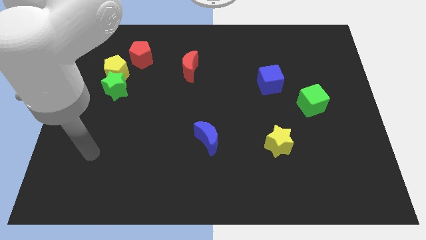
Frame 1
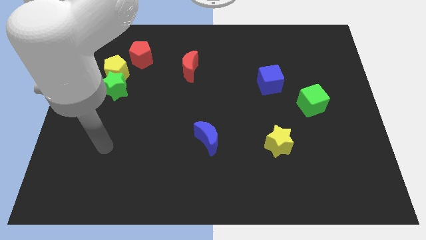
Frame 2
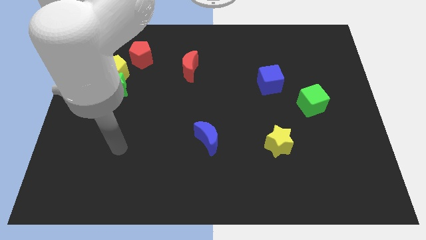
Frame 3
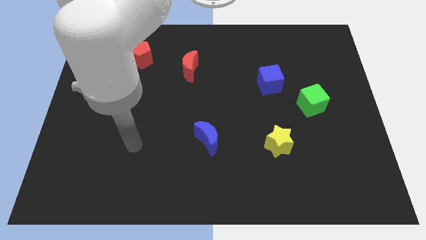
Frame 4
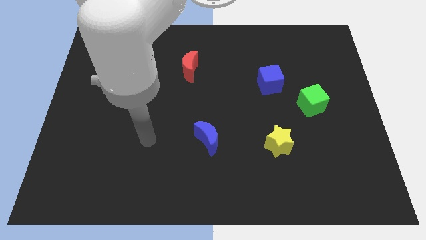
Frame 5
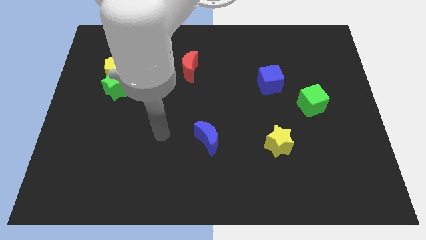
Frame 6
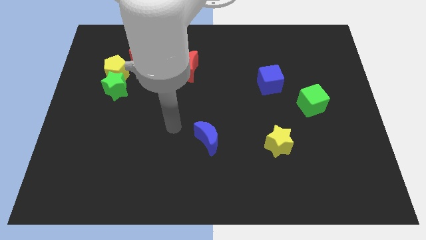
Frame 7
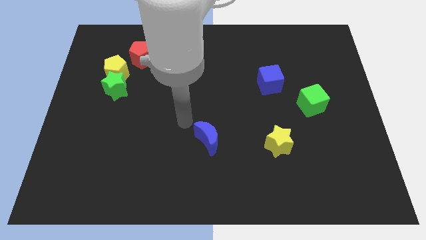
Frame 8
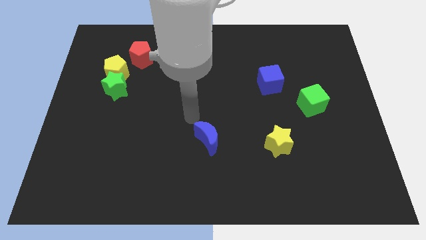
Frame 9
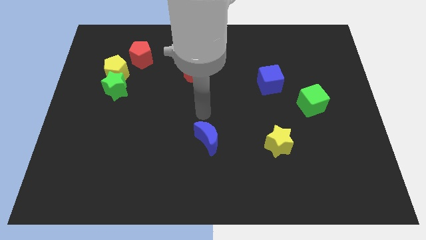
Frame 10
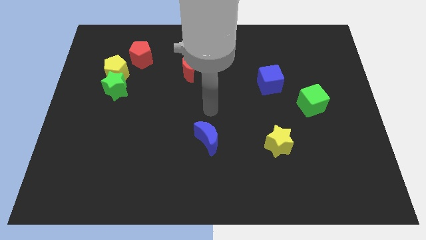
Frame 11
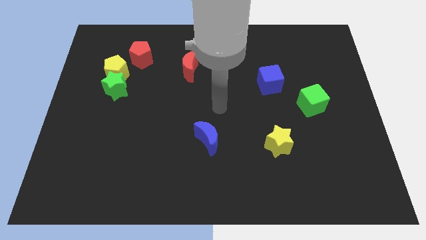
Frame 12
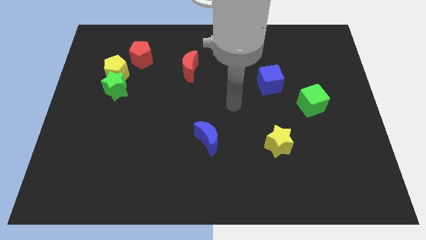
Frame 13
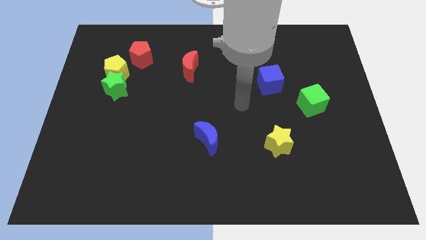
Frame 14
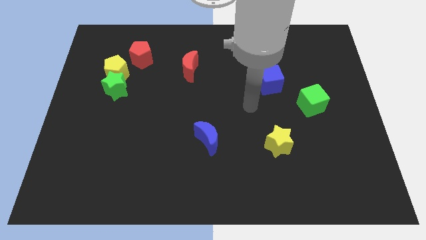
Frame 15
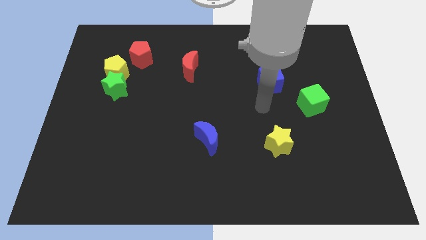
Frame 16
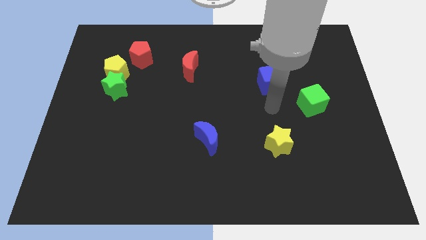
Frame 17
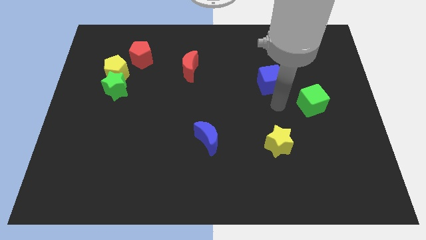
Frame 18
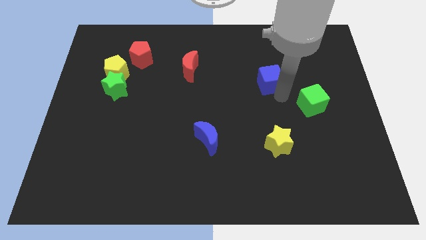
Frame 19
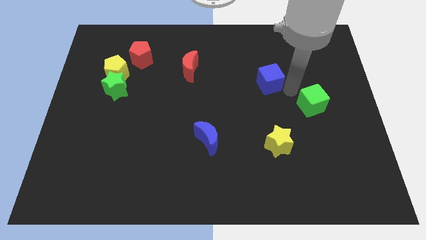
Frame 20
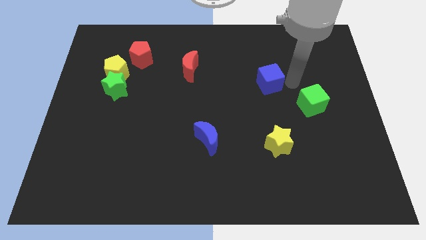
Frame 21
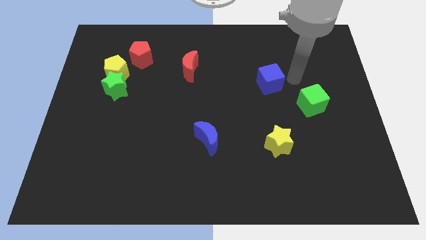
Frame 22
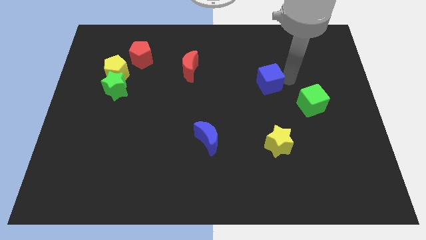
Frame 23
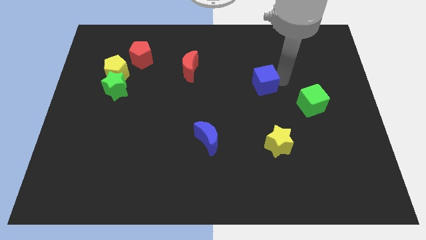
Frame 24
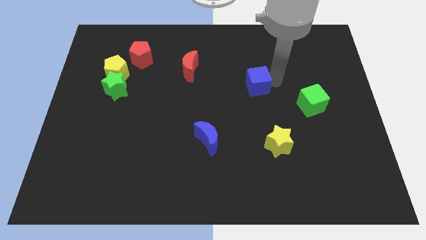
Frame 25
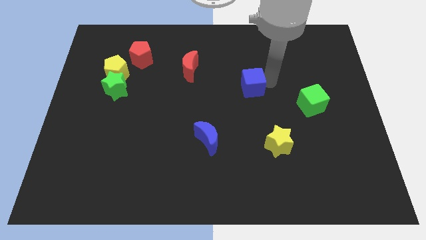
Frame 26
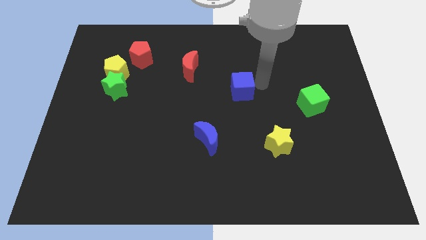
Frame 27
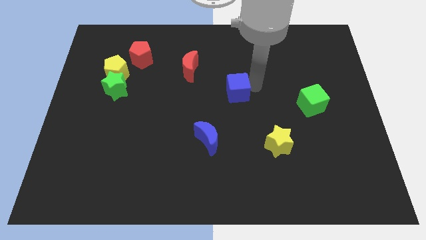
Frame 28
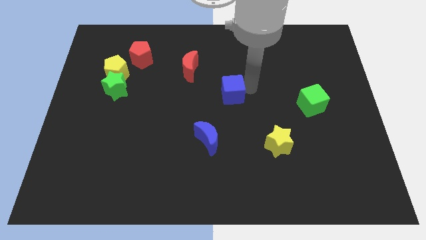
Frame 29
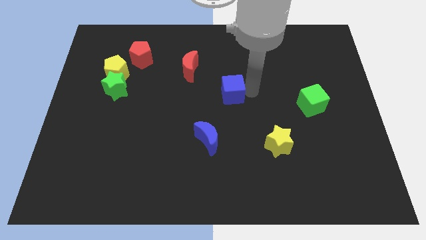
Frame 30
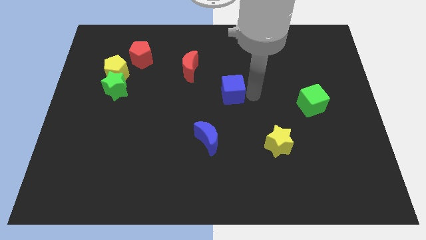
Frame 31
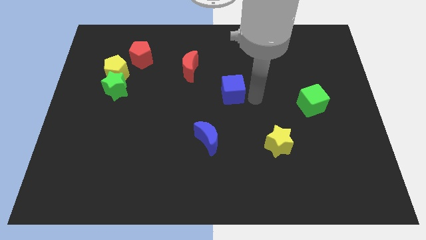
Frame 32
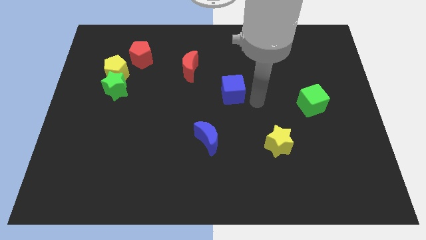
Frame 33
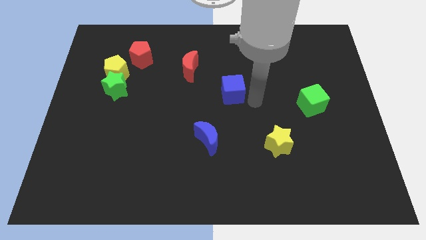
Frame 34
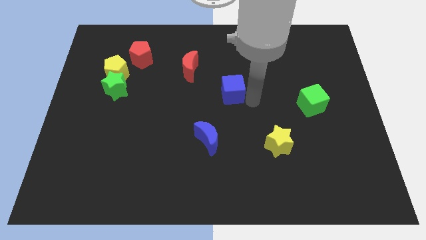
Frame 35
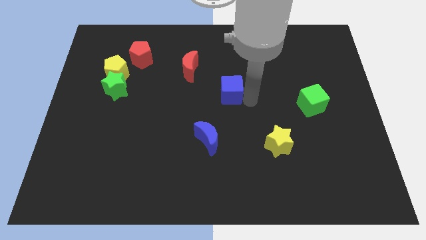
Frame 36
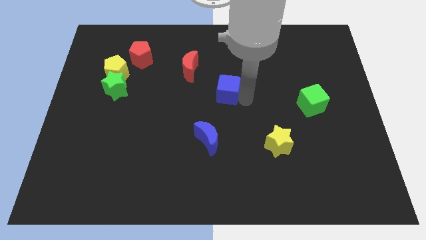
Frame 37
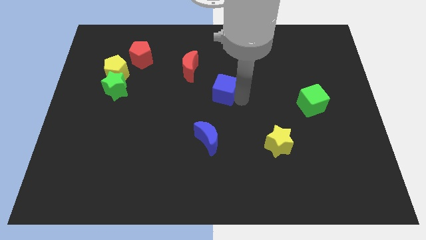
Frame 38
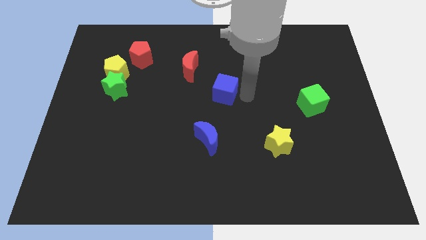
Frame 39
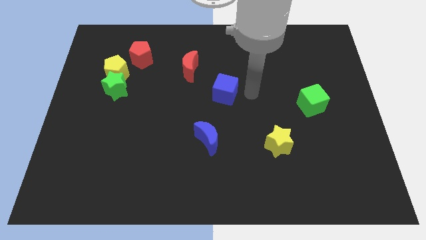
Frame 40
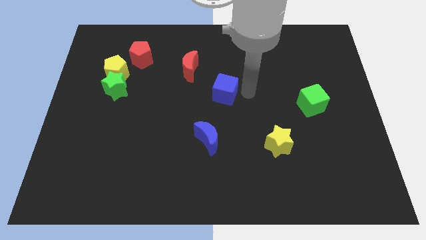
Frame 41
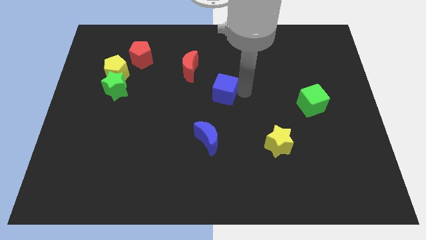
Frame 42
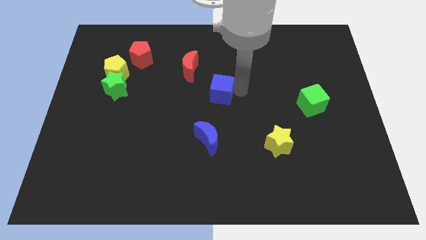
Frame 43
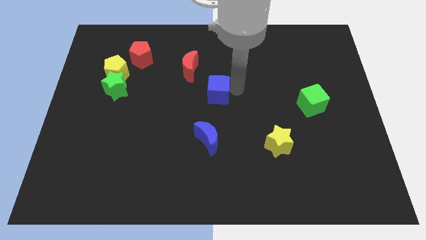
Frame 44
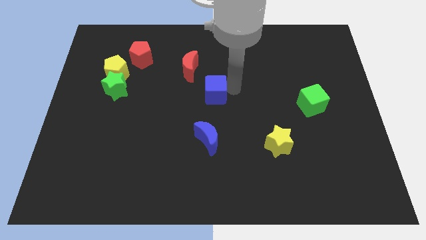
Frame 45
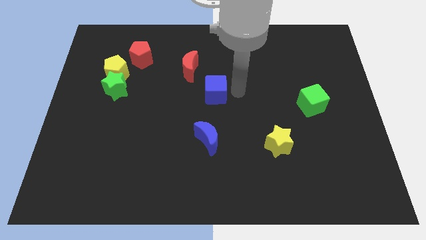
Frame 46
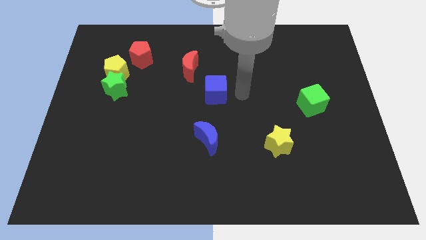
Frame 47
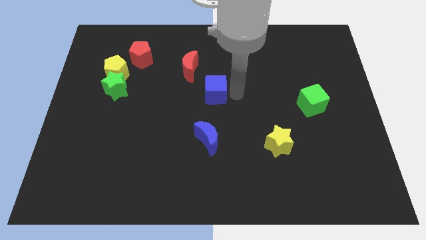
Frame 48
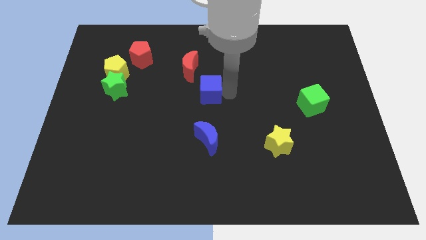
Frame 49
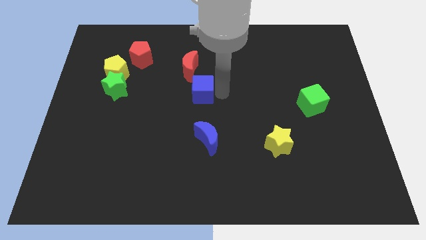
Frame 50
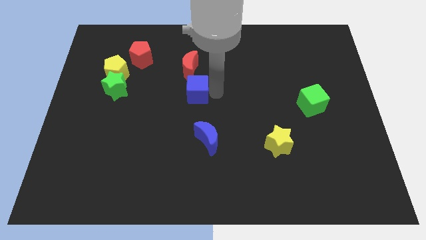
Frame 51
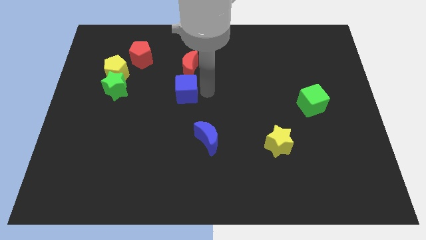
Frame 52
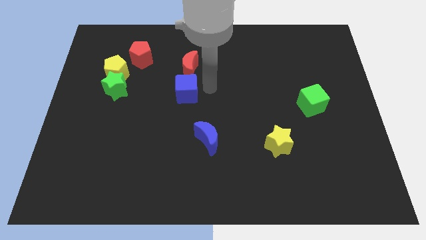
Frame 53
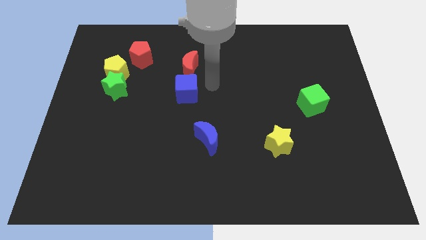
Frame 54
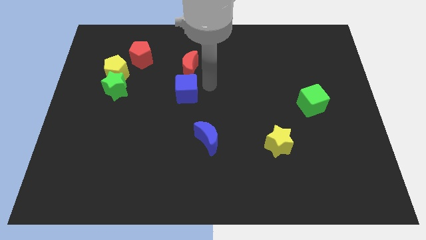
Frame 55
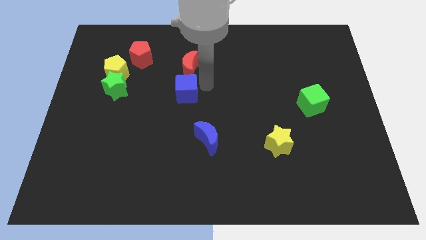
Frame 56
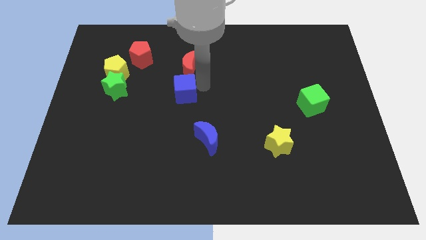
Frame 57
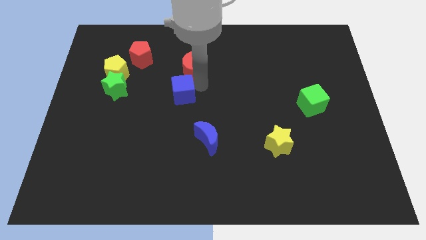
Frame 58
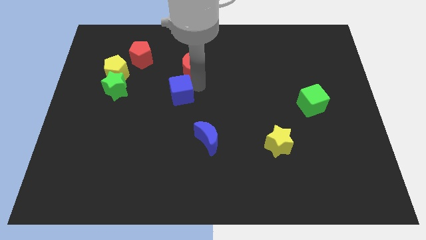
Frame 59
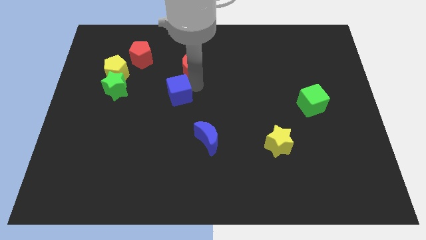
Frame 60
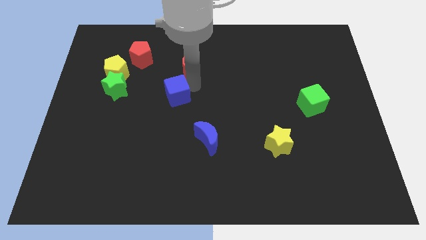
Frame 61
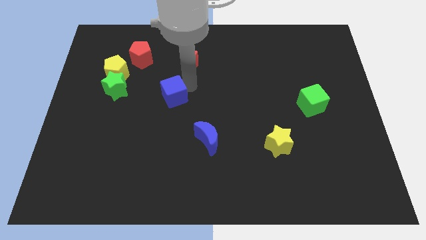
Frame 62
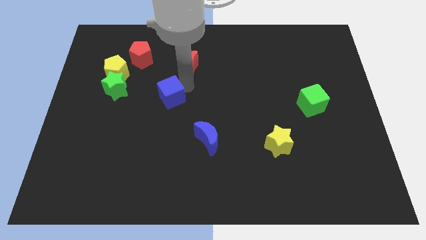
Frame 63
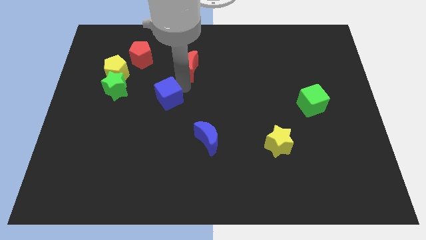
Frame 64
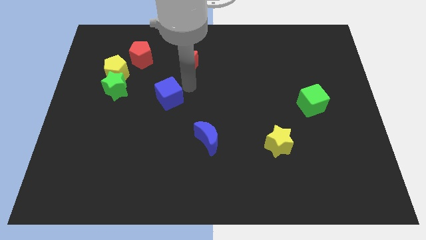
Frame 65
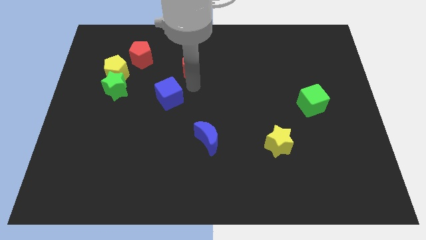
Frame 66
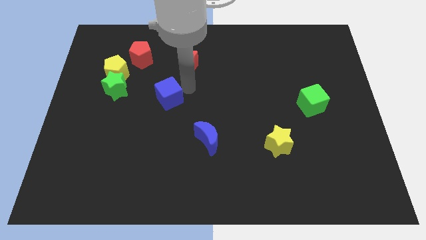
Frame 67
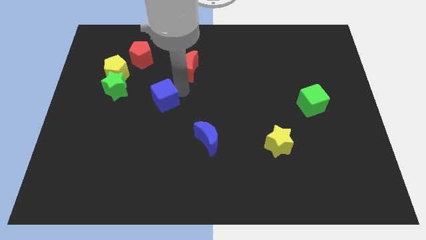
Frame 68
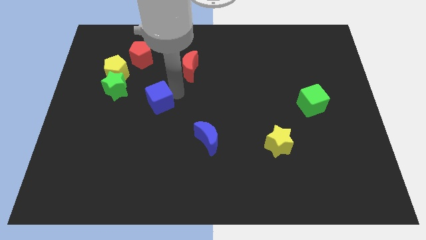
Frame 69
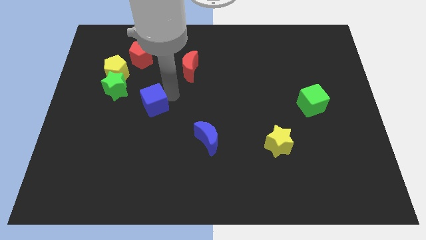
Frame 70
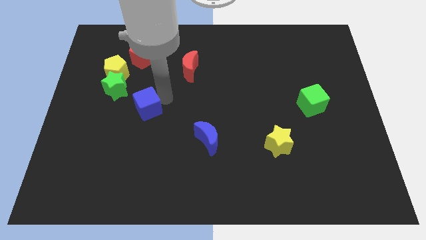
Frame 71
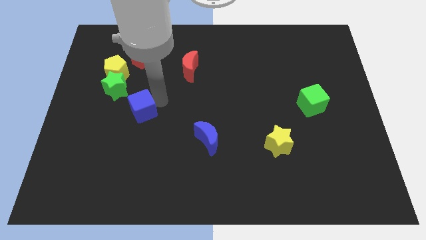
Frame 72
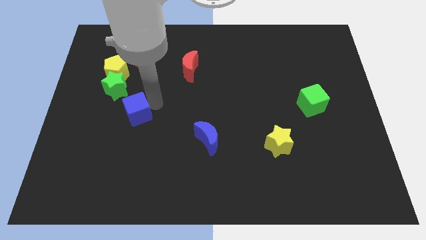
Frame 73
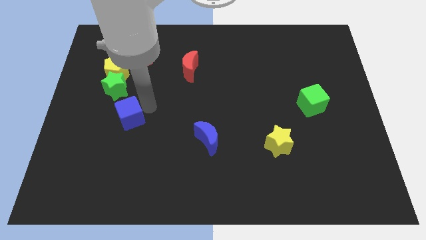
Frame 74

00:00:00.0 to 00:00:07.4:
put the blue cube to the bottom of the green star
